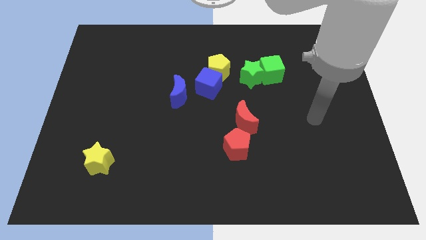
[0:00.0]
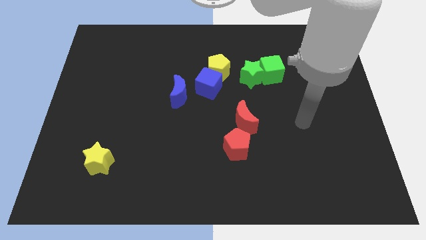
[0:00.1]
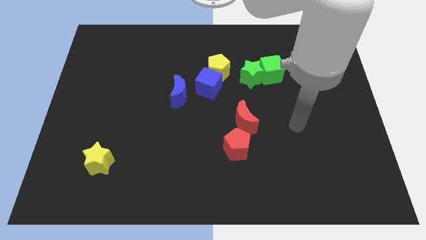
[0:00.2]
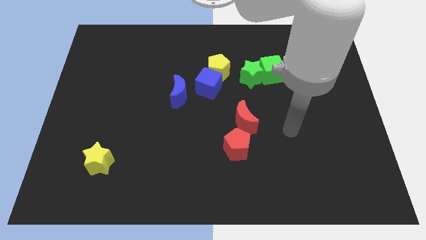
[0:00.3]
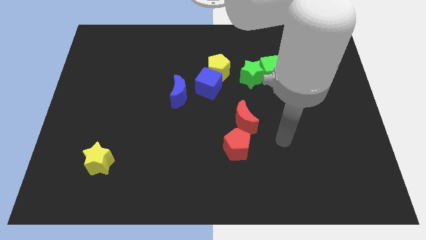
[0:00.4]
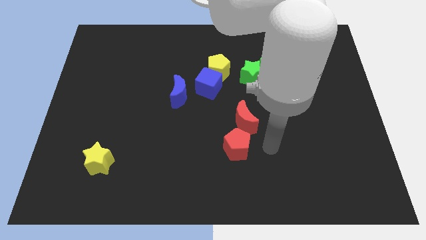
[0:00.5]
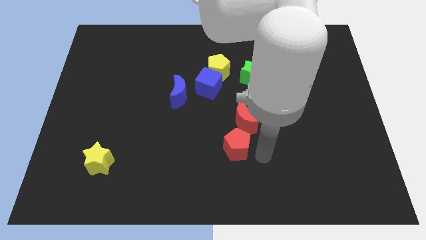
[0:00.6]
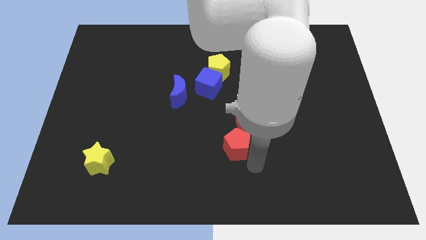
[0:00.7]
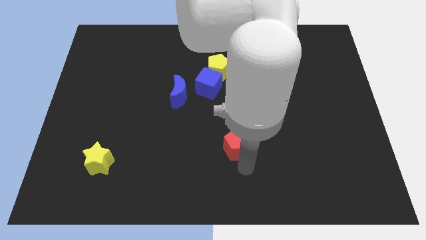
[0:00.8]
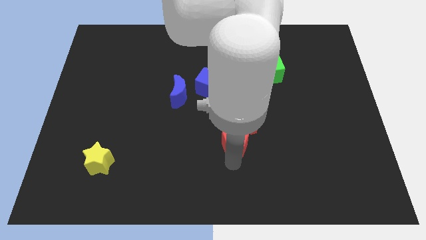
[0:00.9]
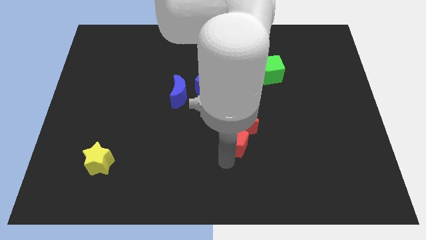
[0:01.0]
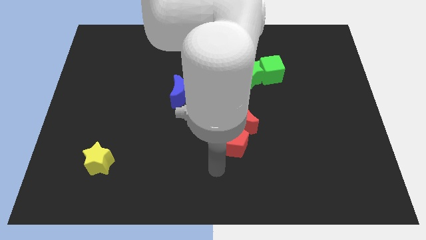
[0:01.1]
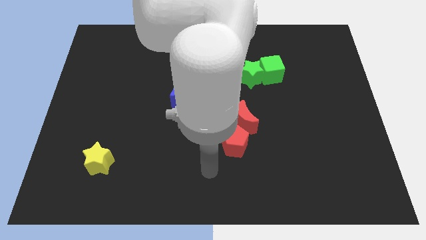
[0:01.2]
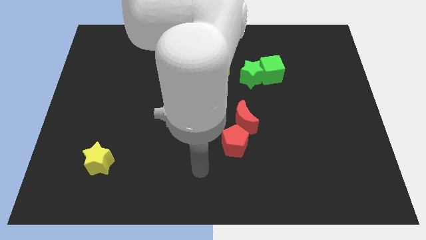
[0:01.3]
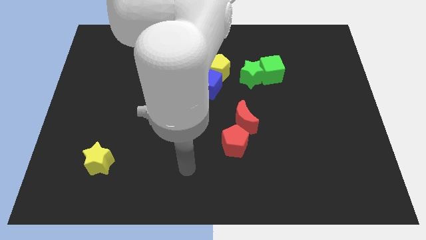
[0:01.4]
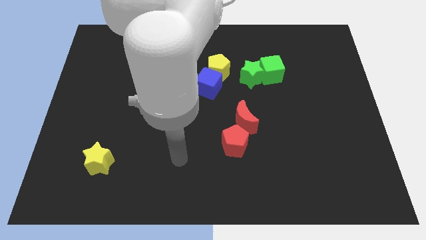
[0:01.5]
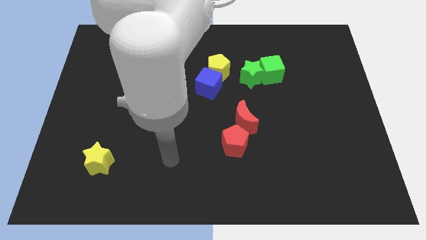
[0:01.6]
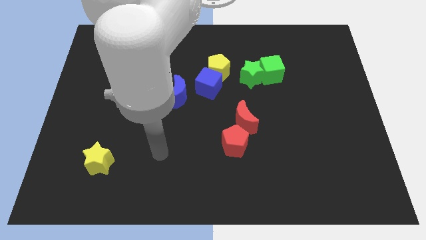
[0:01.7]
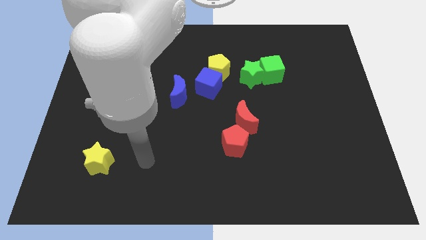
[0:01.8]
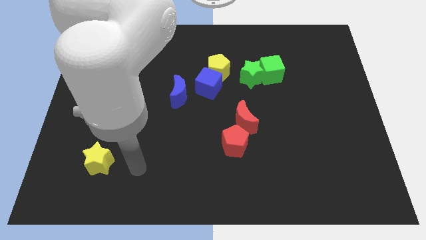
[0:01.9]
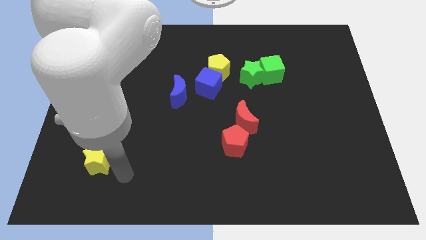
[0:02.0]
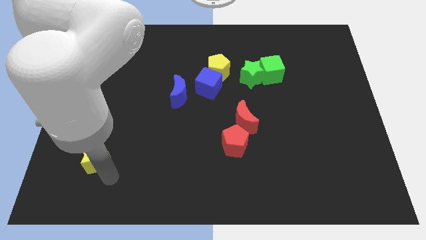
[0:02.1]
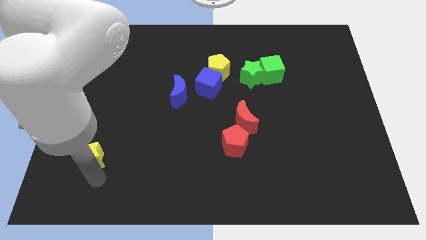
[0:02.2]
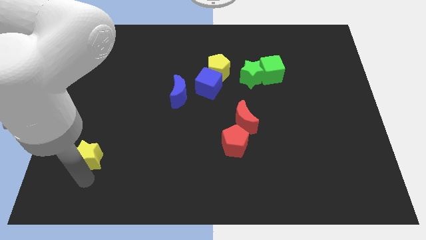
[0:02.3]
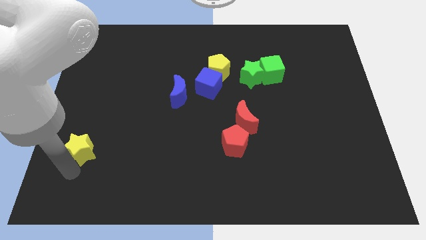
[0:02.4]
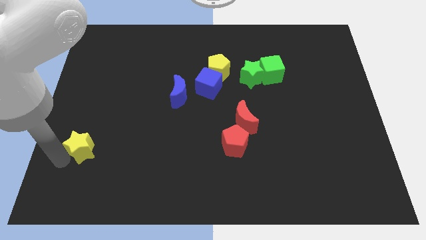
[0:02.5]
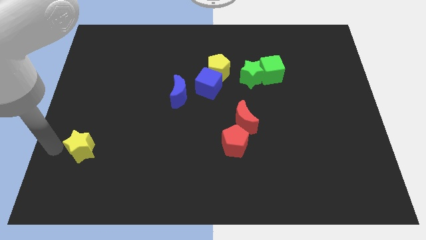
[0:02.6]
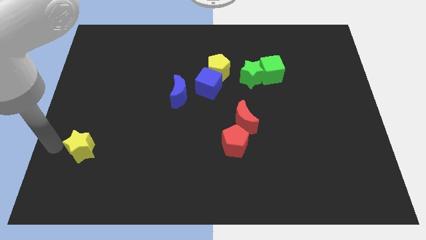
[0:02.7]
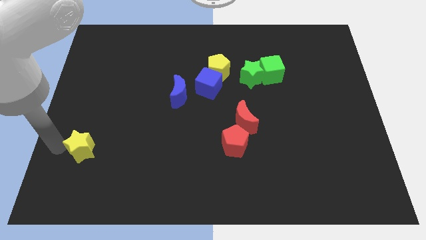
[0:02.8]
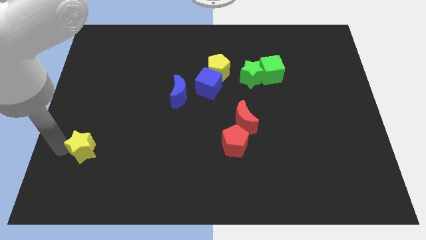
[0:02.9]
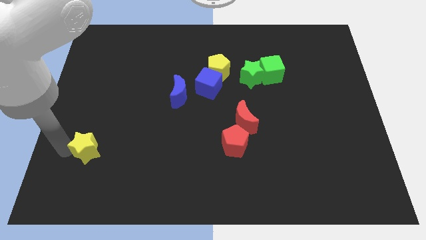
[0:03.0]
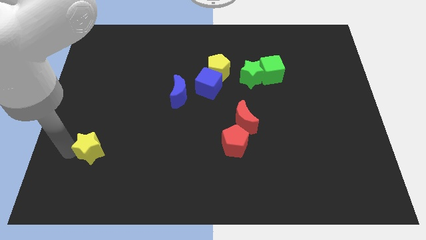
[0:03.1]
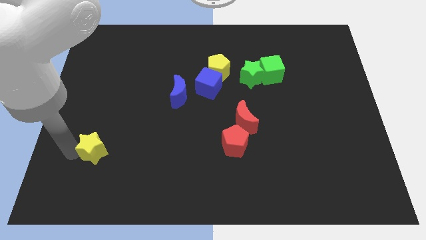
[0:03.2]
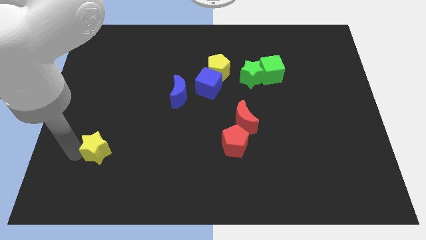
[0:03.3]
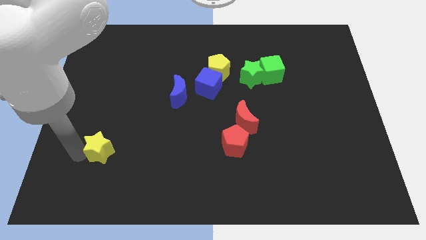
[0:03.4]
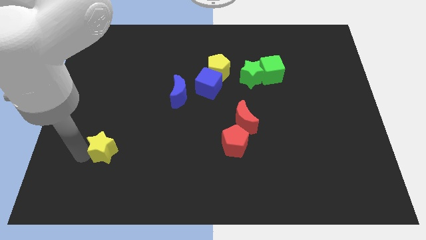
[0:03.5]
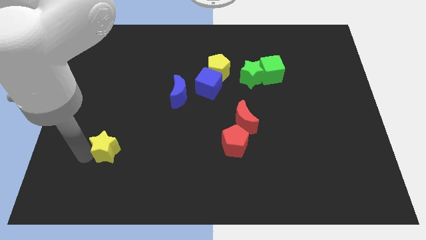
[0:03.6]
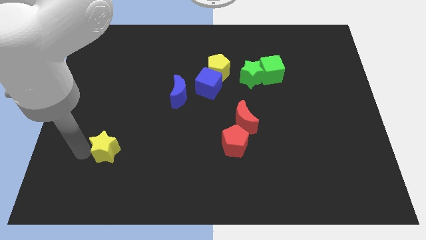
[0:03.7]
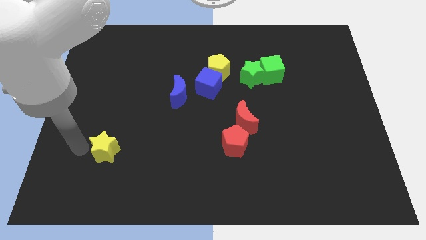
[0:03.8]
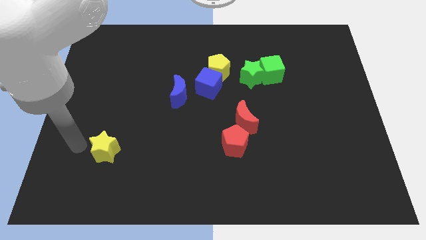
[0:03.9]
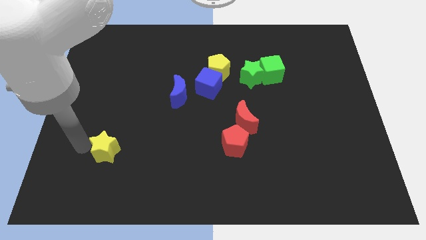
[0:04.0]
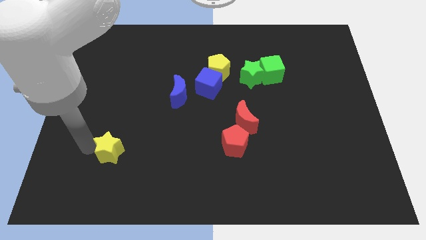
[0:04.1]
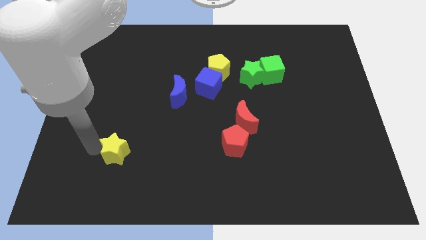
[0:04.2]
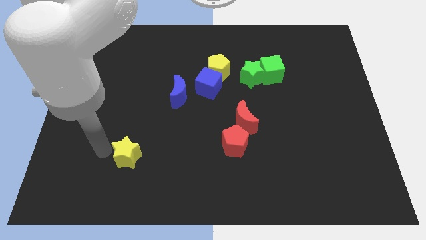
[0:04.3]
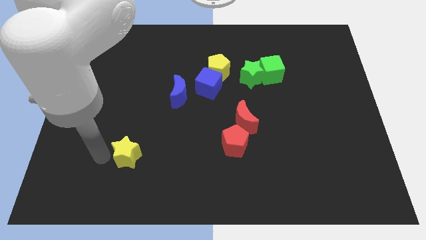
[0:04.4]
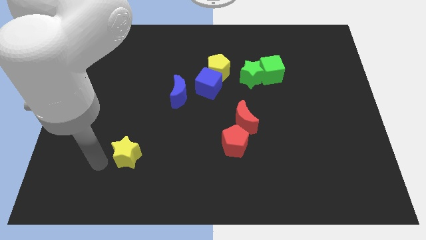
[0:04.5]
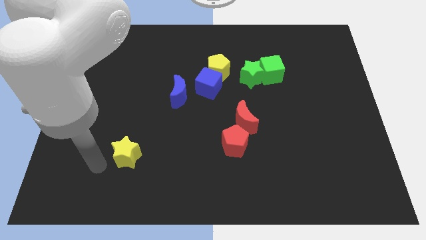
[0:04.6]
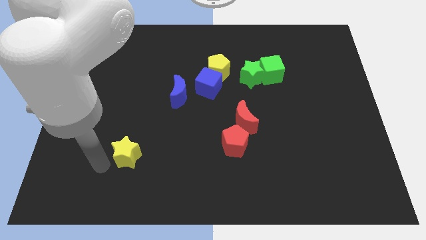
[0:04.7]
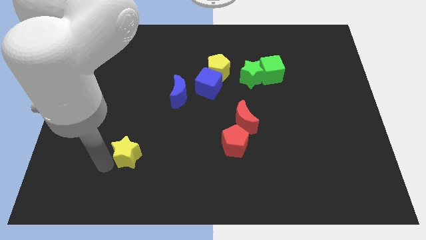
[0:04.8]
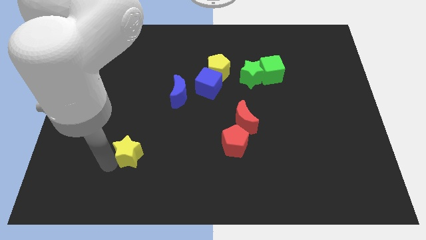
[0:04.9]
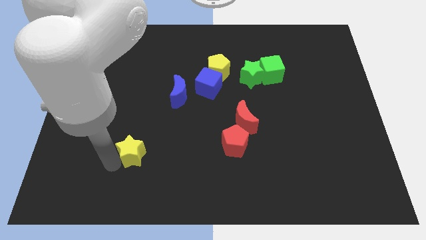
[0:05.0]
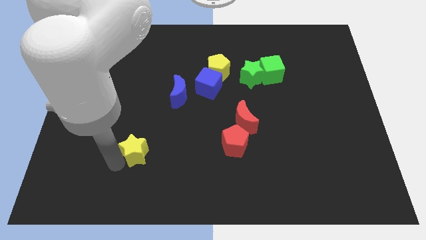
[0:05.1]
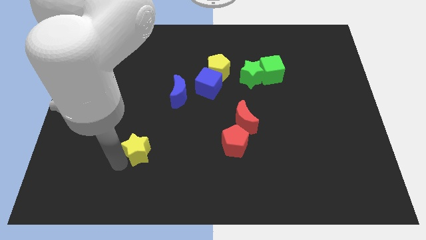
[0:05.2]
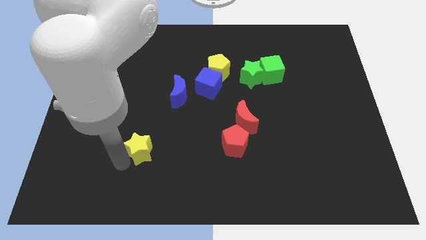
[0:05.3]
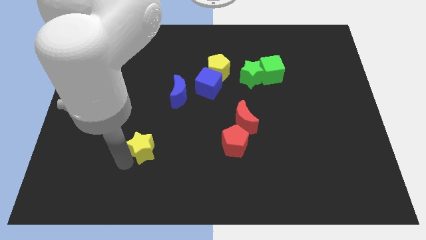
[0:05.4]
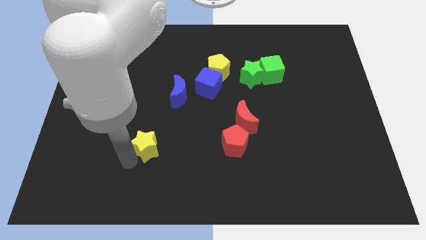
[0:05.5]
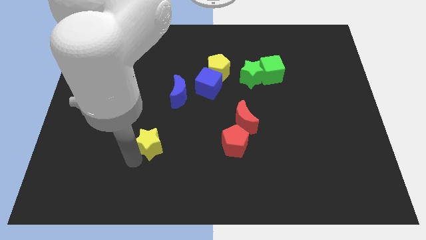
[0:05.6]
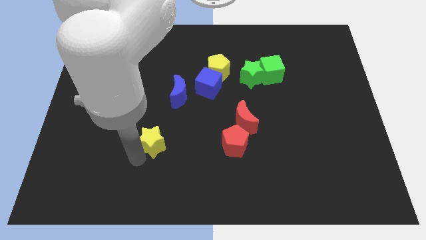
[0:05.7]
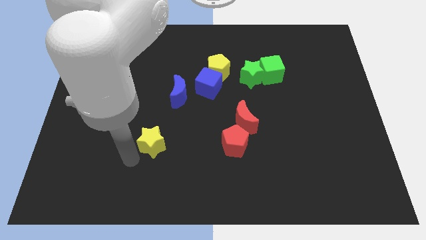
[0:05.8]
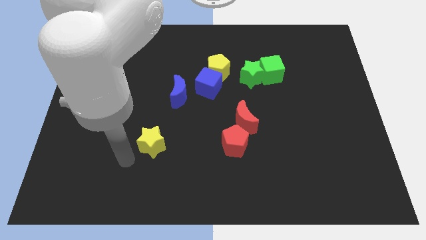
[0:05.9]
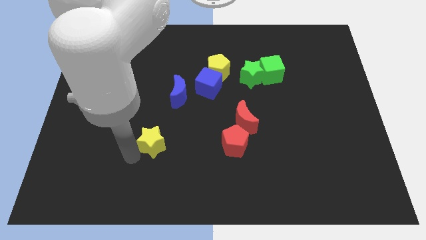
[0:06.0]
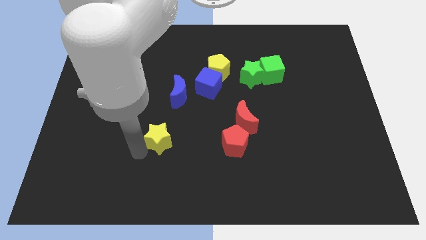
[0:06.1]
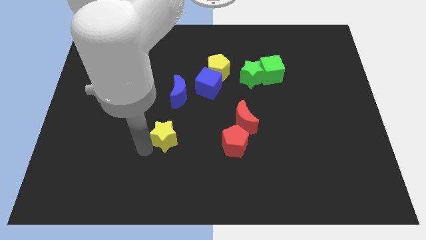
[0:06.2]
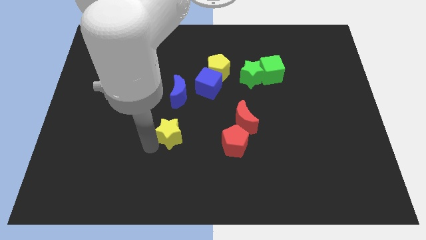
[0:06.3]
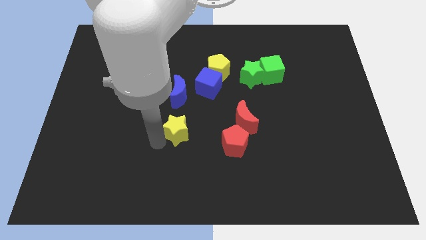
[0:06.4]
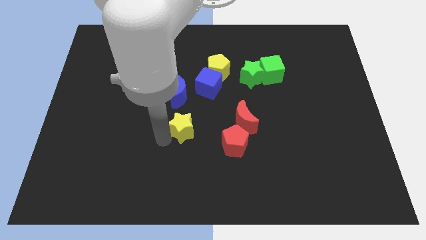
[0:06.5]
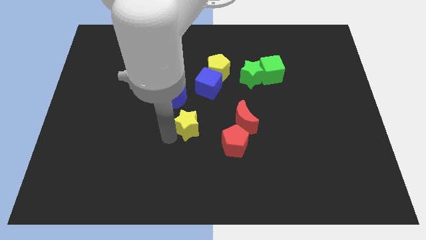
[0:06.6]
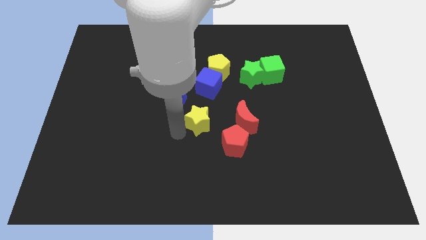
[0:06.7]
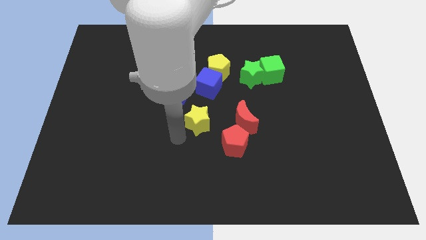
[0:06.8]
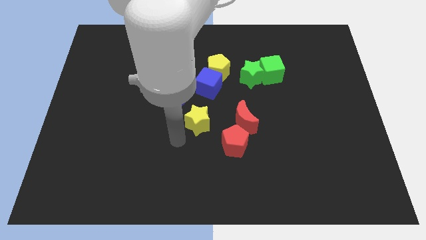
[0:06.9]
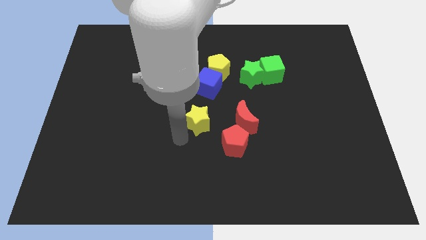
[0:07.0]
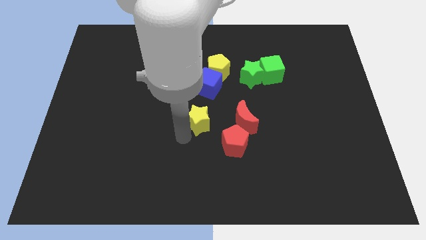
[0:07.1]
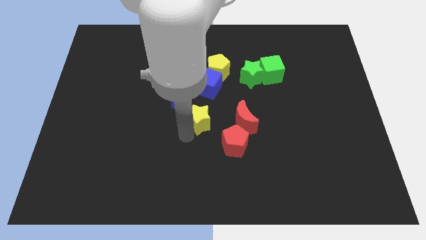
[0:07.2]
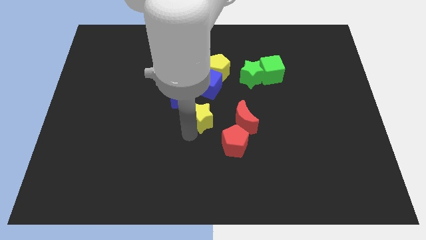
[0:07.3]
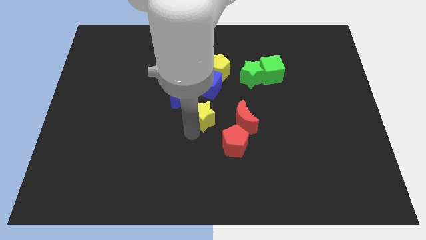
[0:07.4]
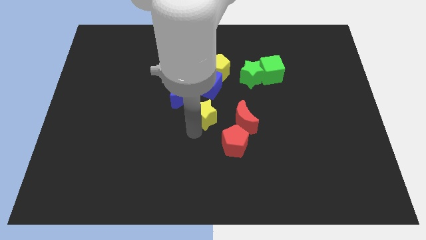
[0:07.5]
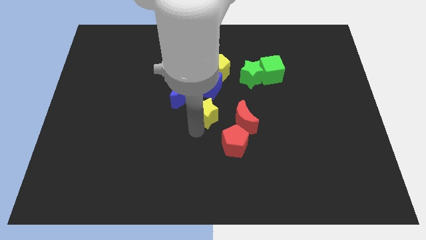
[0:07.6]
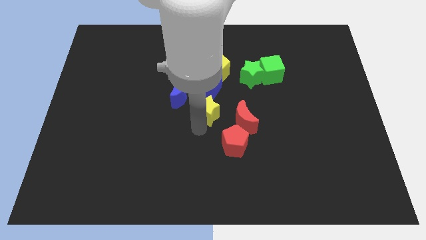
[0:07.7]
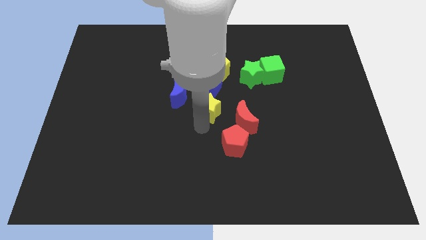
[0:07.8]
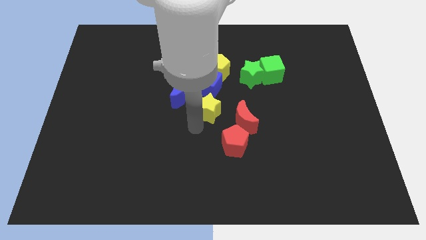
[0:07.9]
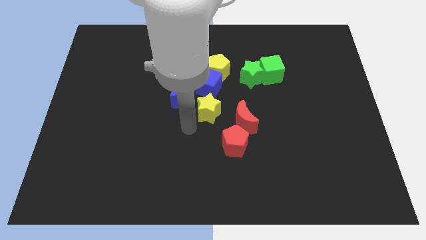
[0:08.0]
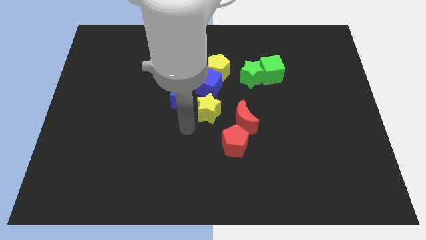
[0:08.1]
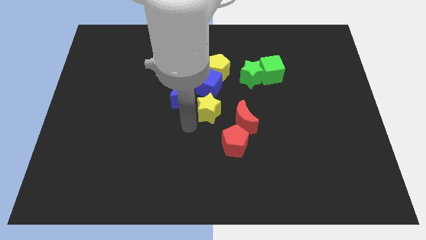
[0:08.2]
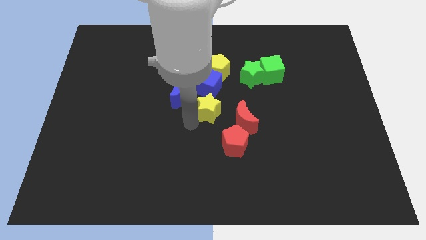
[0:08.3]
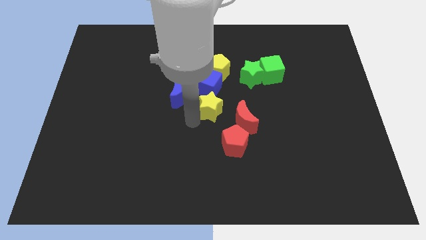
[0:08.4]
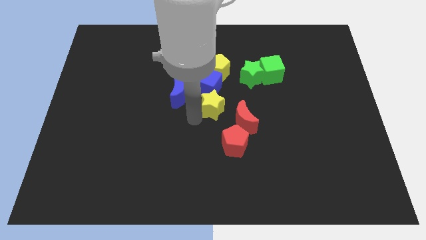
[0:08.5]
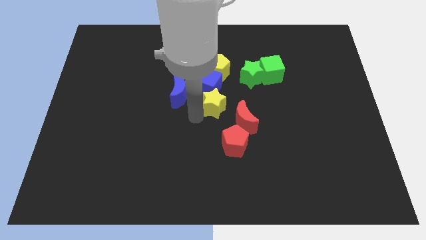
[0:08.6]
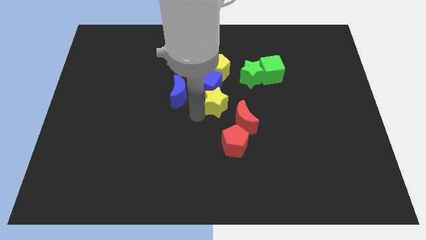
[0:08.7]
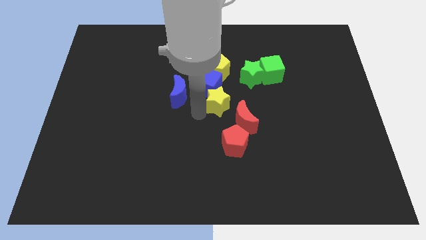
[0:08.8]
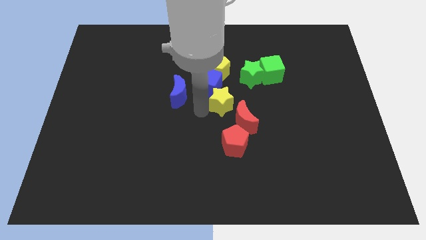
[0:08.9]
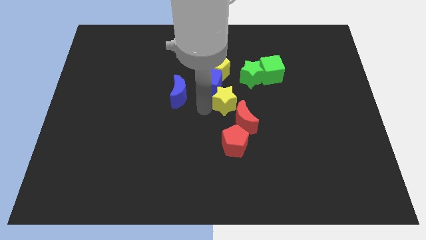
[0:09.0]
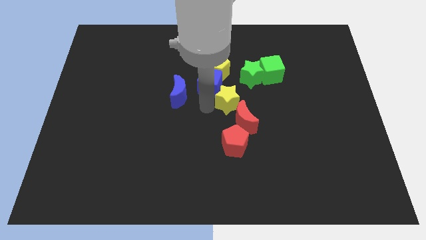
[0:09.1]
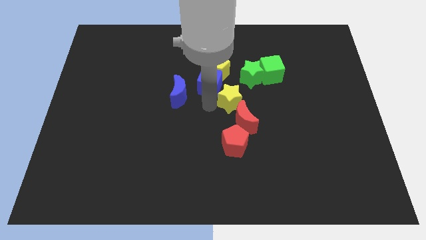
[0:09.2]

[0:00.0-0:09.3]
push the yellow star to the right side of the blue cube
